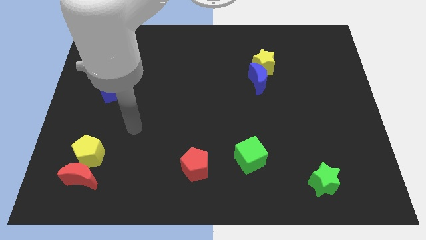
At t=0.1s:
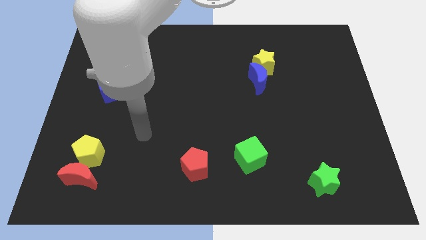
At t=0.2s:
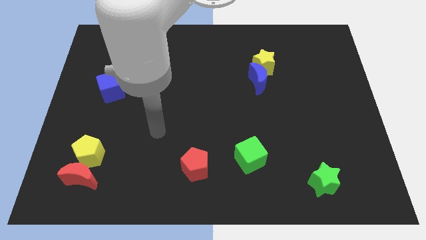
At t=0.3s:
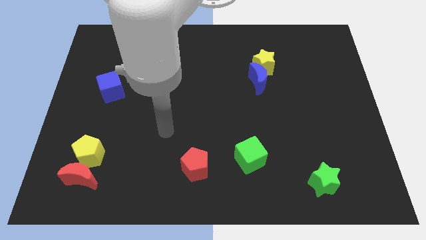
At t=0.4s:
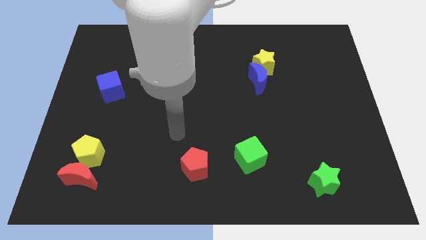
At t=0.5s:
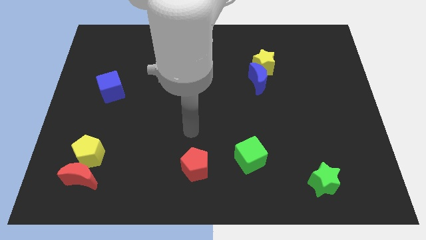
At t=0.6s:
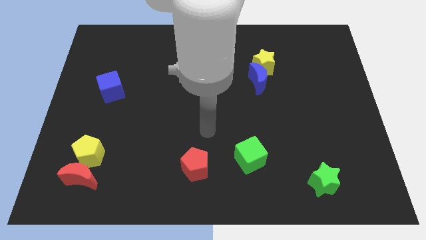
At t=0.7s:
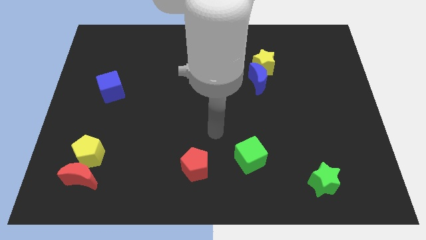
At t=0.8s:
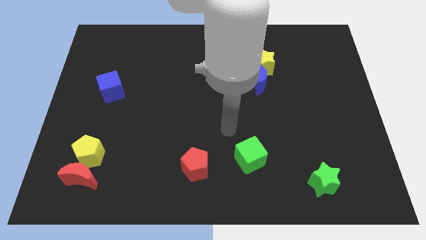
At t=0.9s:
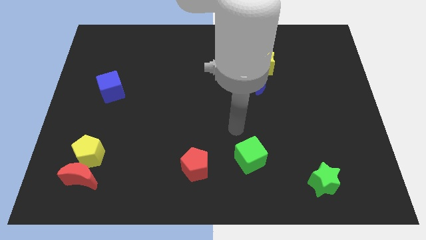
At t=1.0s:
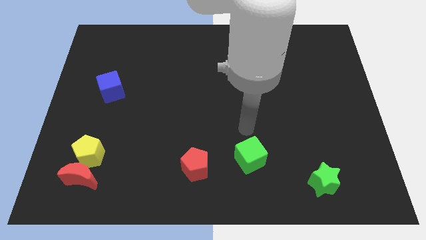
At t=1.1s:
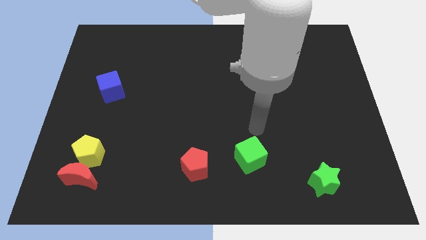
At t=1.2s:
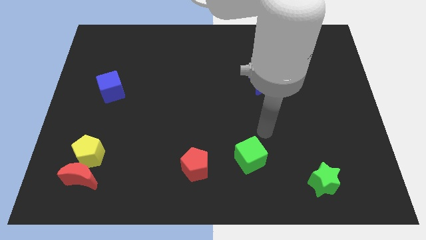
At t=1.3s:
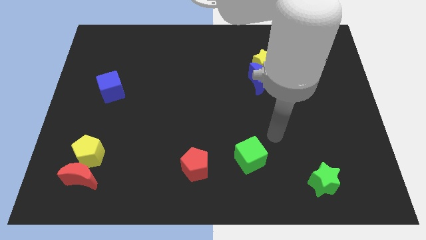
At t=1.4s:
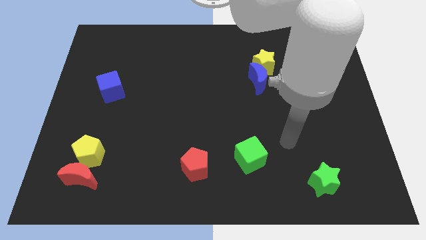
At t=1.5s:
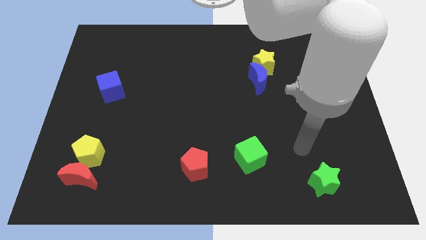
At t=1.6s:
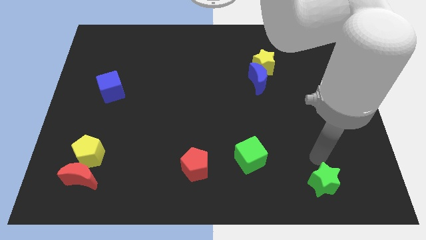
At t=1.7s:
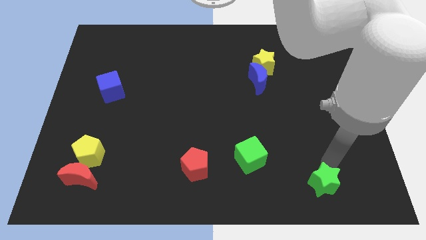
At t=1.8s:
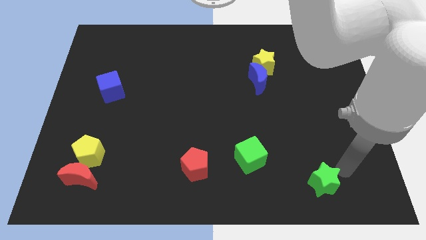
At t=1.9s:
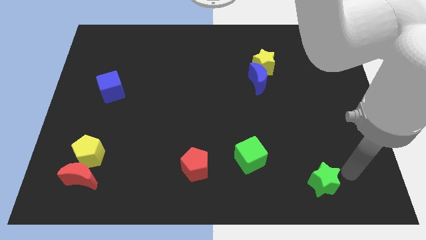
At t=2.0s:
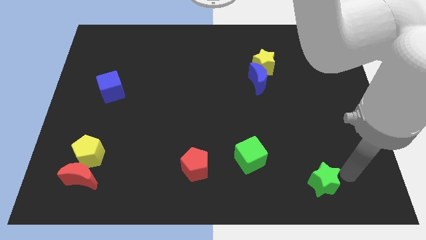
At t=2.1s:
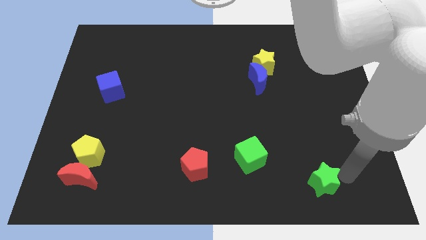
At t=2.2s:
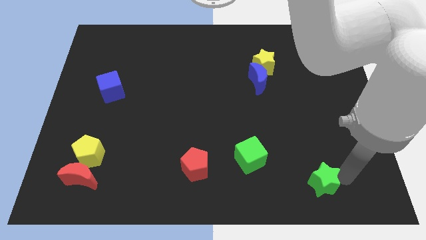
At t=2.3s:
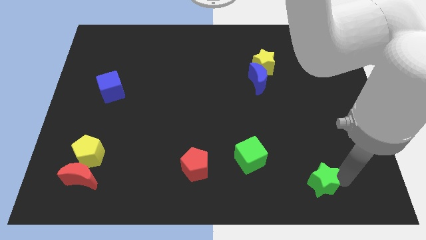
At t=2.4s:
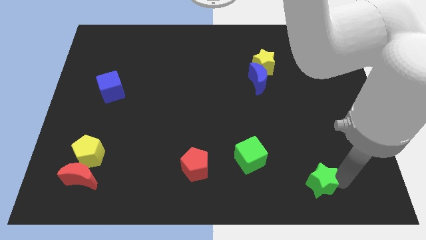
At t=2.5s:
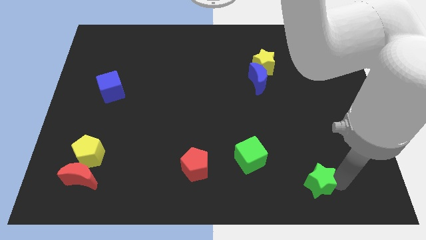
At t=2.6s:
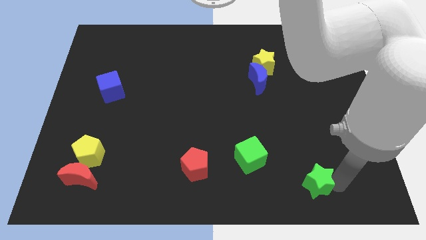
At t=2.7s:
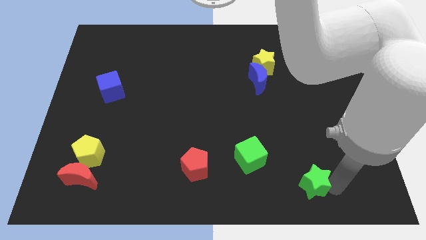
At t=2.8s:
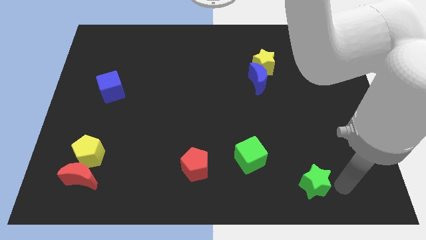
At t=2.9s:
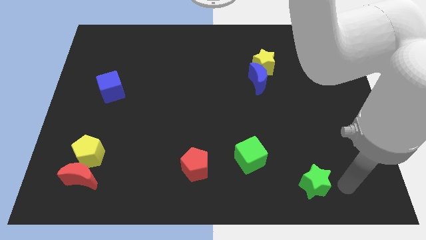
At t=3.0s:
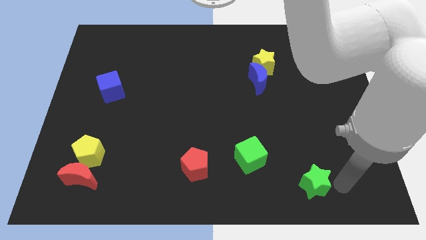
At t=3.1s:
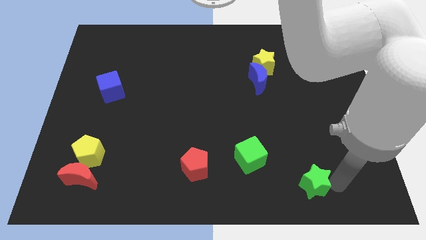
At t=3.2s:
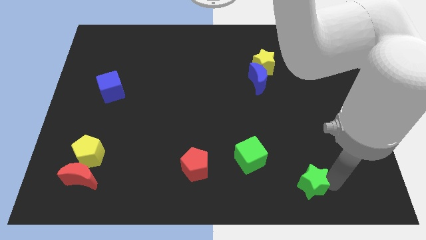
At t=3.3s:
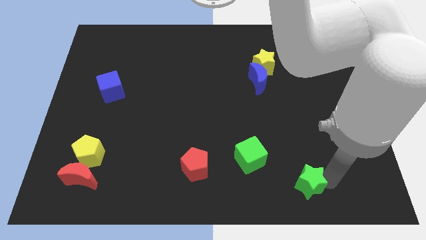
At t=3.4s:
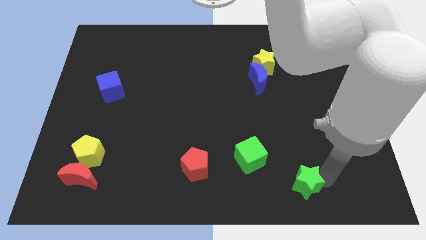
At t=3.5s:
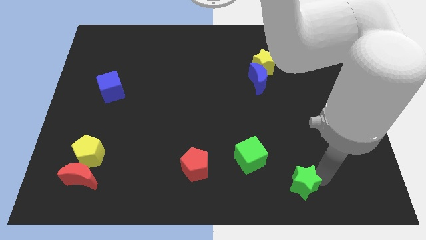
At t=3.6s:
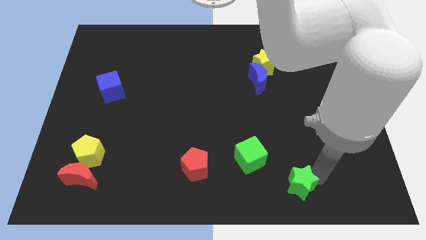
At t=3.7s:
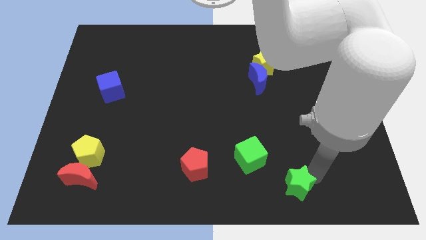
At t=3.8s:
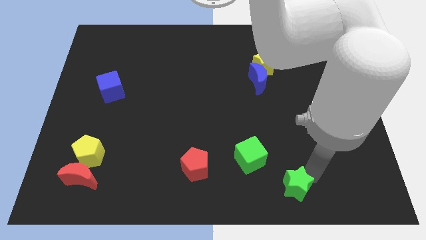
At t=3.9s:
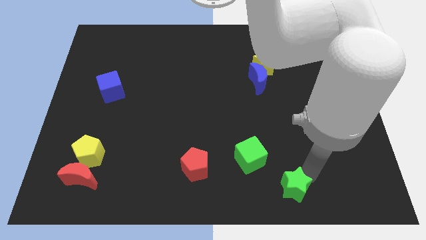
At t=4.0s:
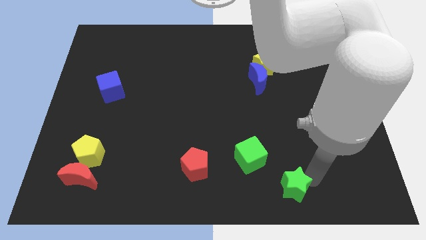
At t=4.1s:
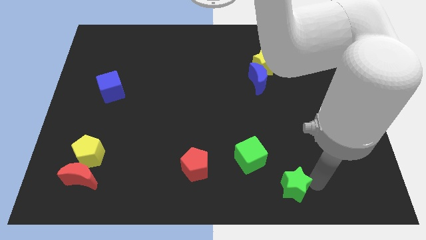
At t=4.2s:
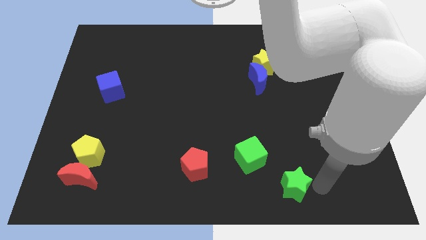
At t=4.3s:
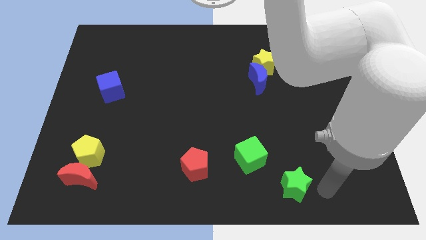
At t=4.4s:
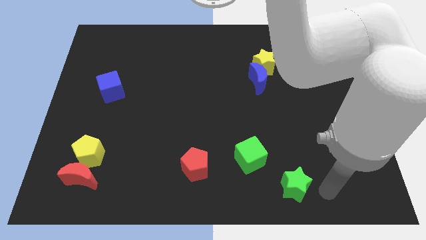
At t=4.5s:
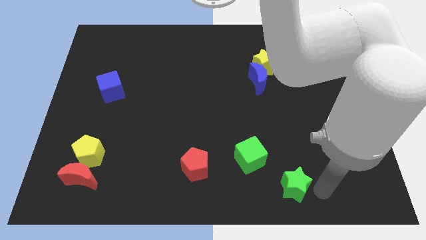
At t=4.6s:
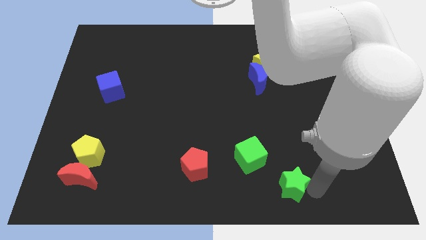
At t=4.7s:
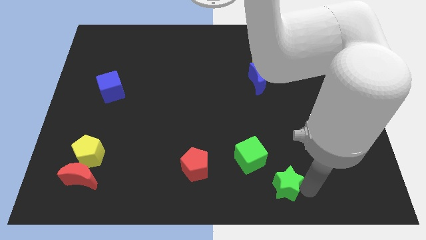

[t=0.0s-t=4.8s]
push the green star a little bit left

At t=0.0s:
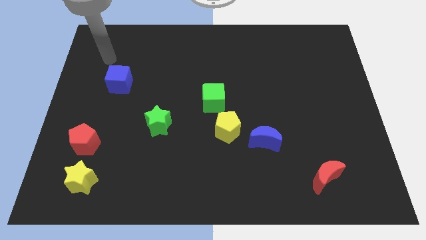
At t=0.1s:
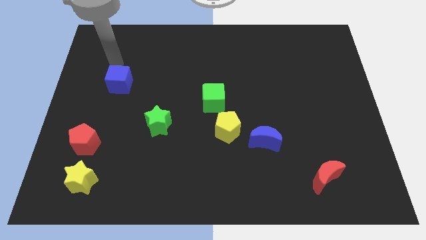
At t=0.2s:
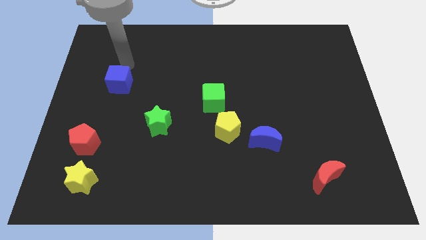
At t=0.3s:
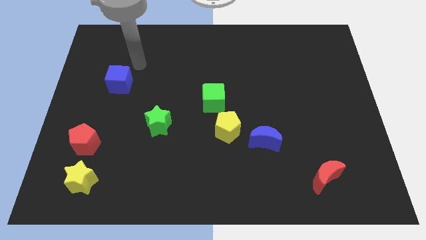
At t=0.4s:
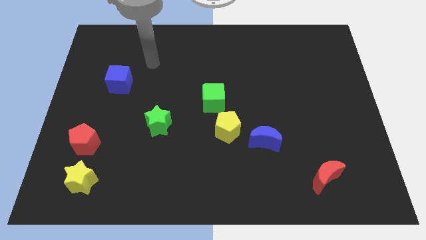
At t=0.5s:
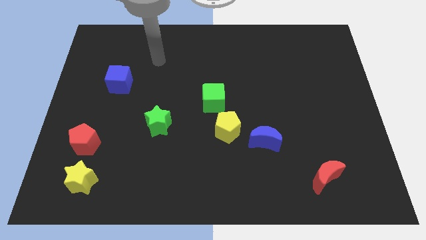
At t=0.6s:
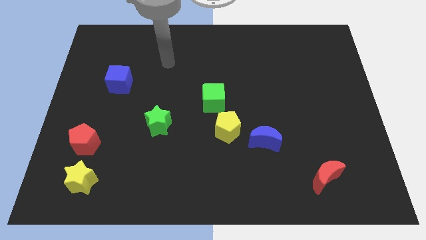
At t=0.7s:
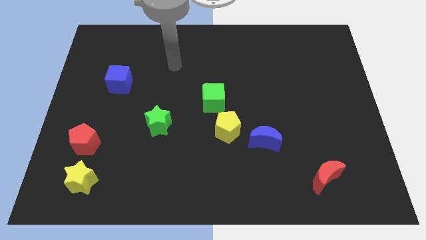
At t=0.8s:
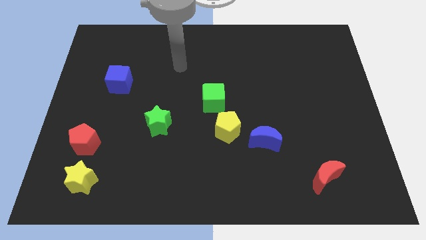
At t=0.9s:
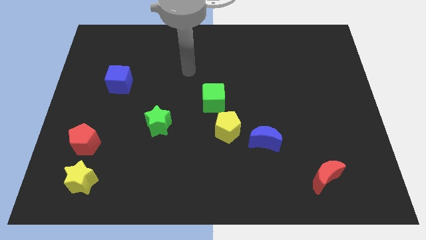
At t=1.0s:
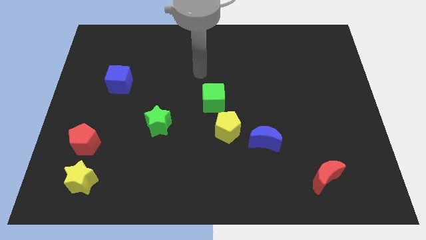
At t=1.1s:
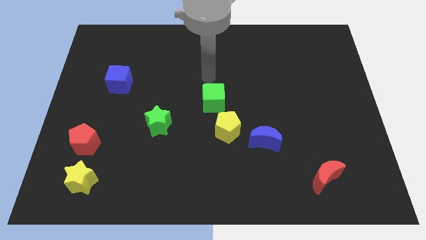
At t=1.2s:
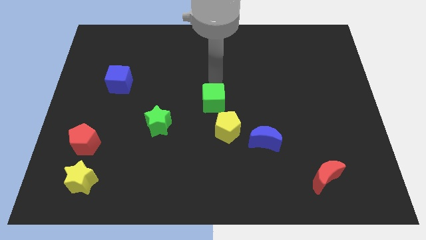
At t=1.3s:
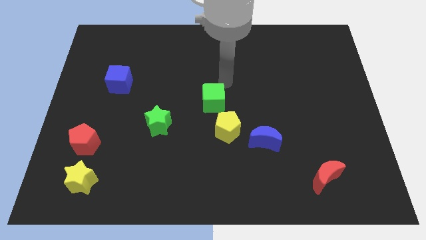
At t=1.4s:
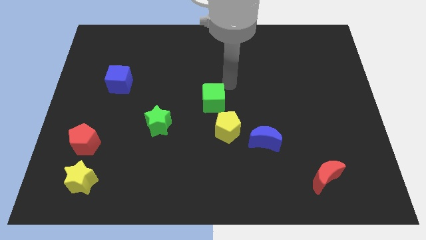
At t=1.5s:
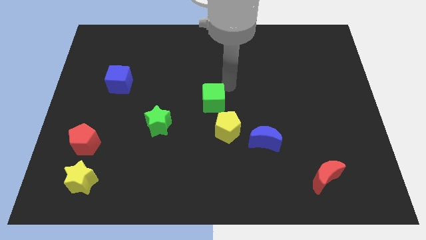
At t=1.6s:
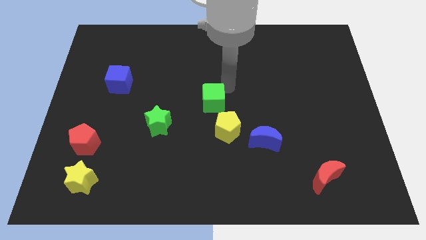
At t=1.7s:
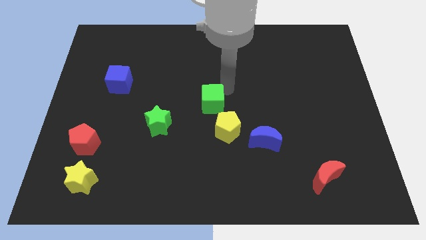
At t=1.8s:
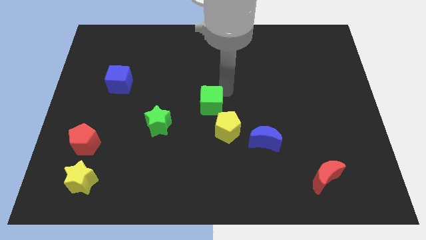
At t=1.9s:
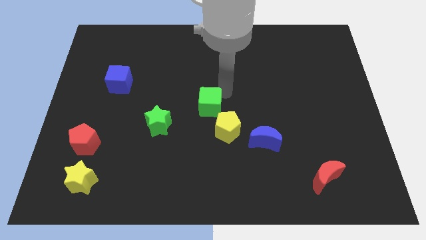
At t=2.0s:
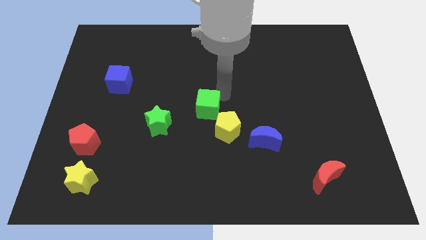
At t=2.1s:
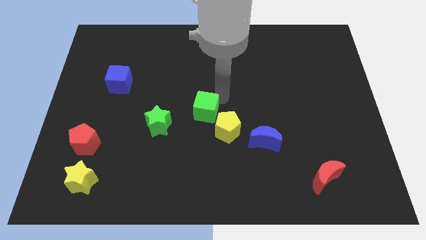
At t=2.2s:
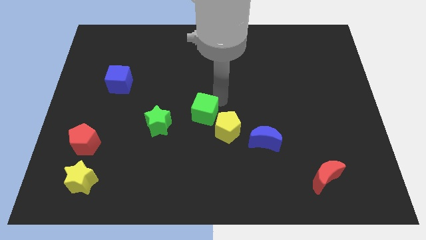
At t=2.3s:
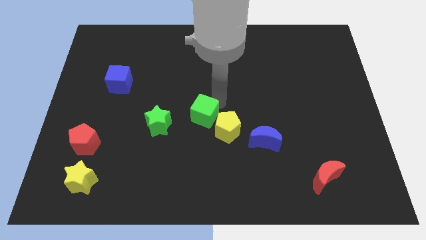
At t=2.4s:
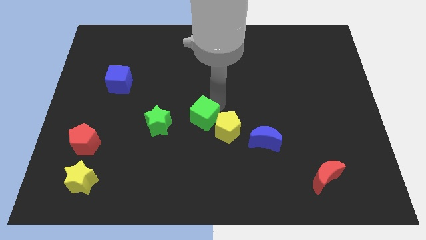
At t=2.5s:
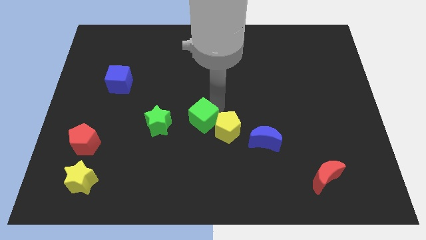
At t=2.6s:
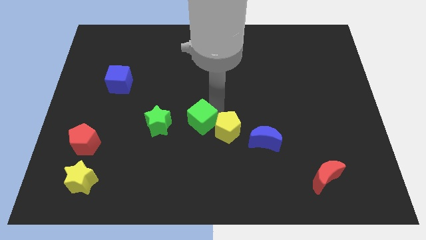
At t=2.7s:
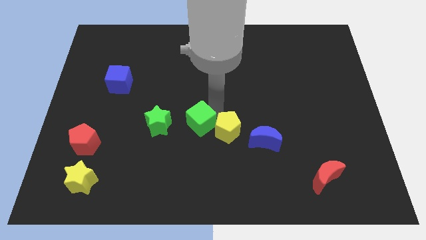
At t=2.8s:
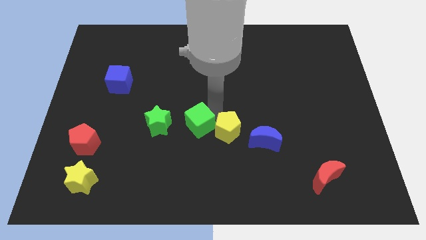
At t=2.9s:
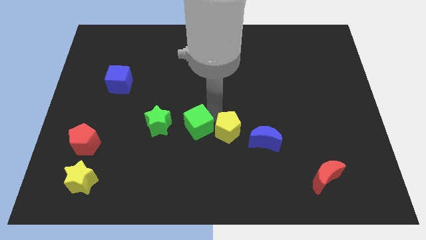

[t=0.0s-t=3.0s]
slightly slide the green cube diagonally down and left
